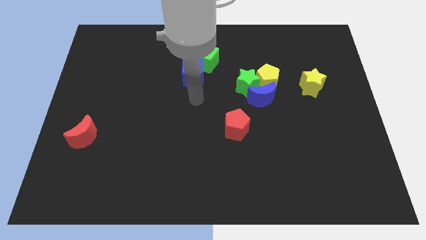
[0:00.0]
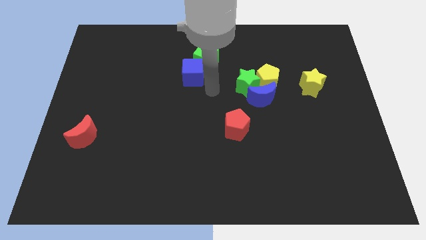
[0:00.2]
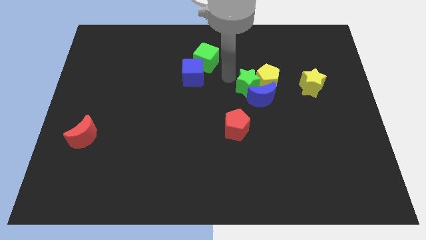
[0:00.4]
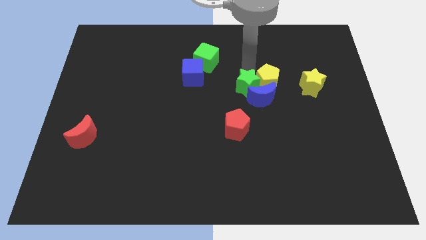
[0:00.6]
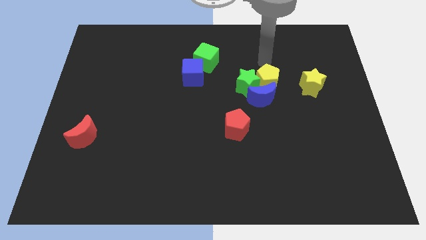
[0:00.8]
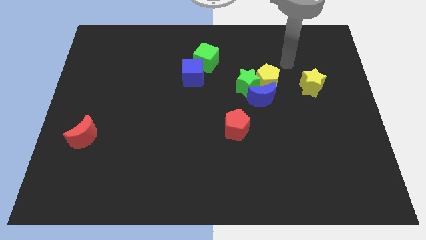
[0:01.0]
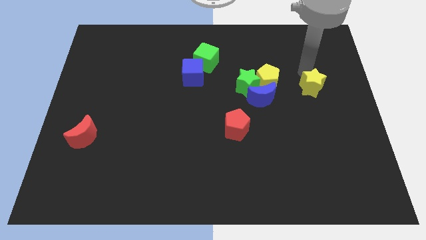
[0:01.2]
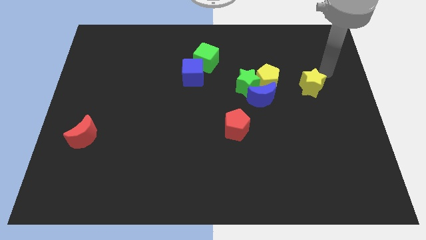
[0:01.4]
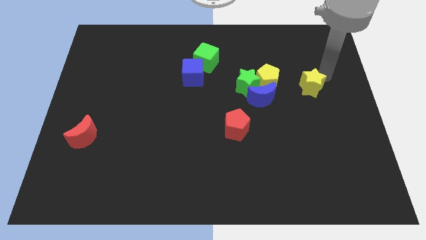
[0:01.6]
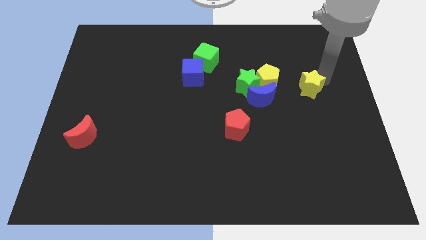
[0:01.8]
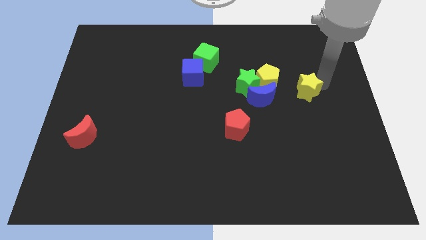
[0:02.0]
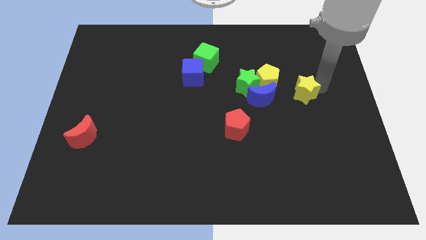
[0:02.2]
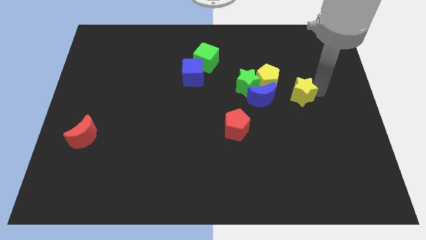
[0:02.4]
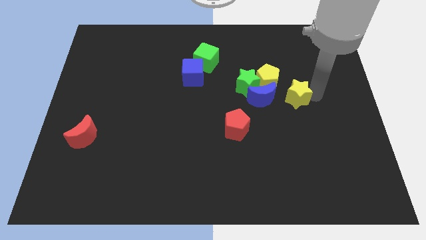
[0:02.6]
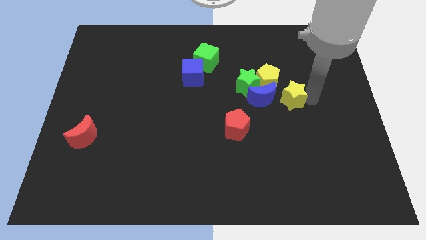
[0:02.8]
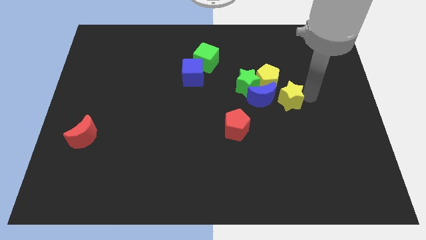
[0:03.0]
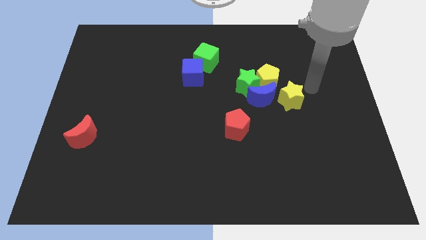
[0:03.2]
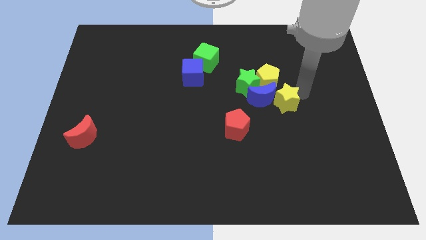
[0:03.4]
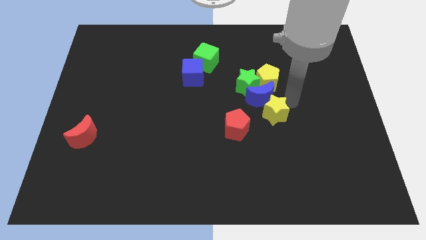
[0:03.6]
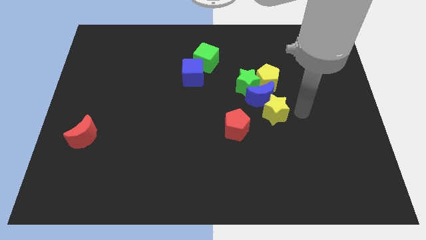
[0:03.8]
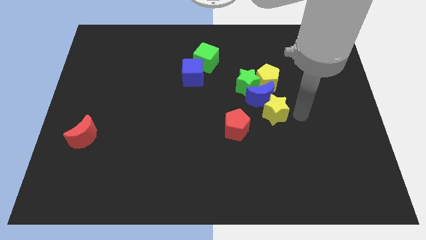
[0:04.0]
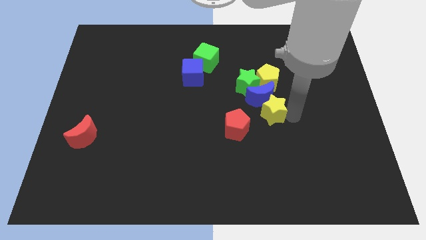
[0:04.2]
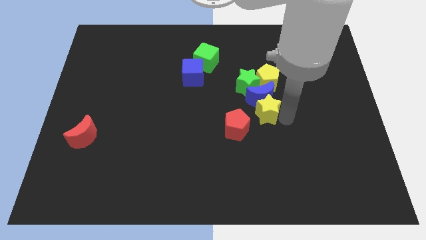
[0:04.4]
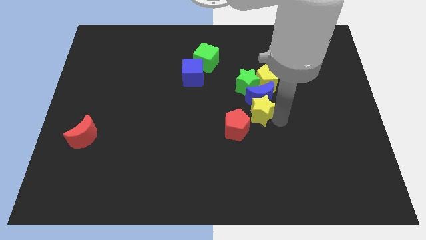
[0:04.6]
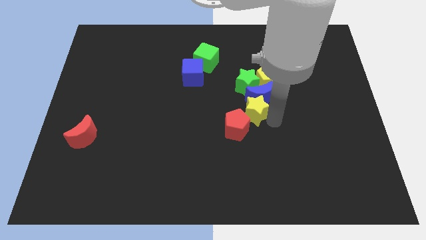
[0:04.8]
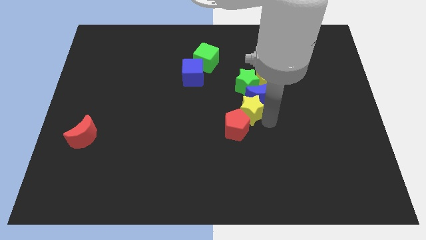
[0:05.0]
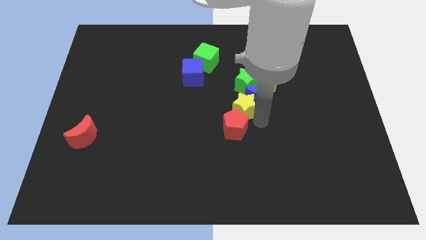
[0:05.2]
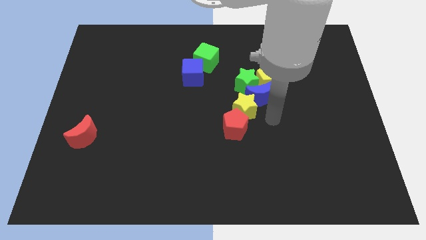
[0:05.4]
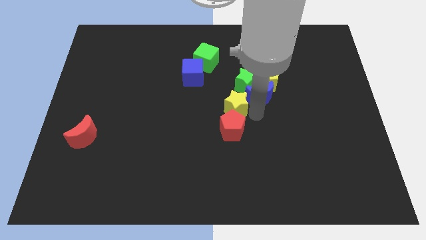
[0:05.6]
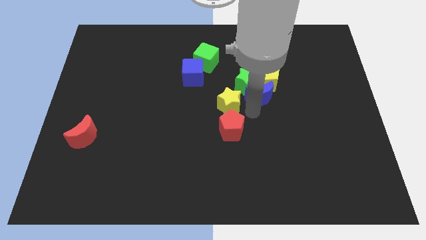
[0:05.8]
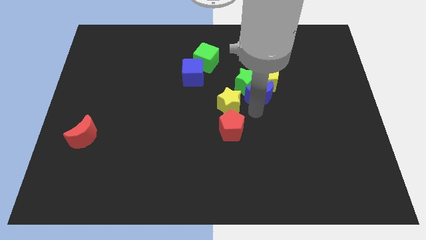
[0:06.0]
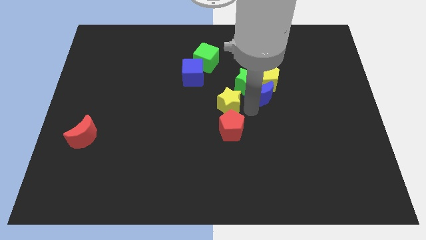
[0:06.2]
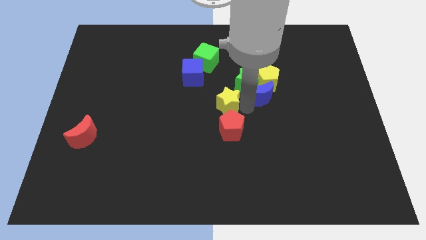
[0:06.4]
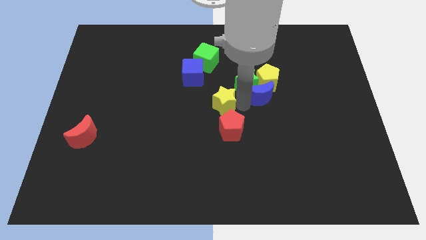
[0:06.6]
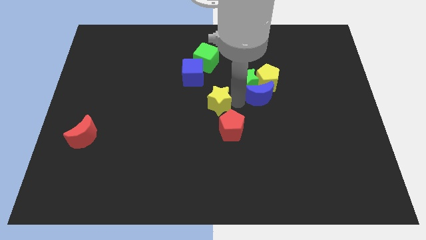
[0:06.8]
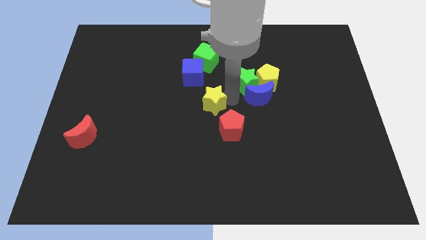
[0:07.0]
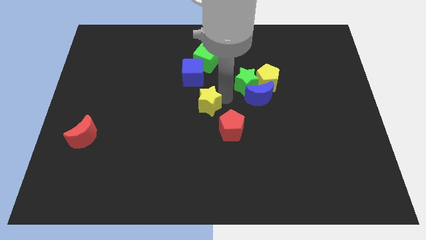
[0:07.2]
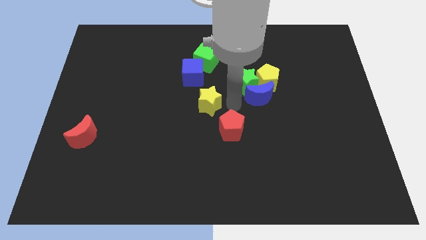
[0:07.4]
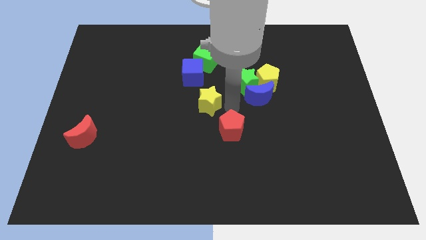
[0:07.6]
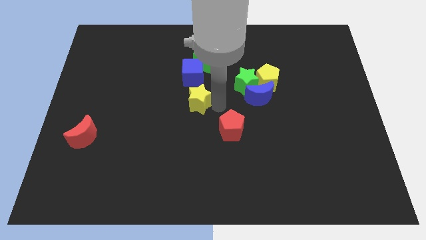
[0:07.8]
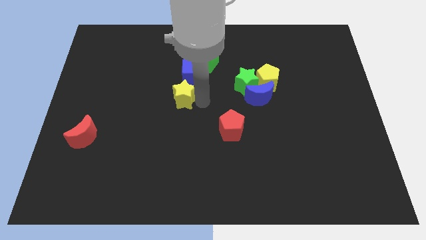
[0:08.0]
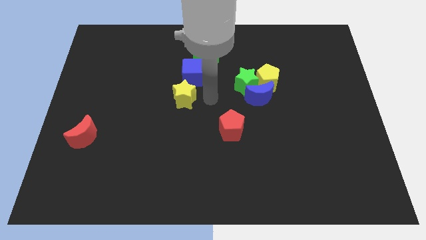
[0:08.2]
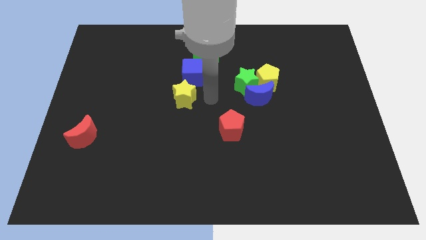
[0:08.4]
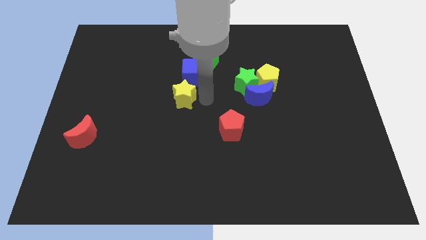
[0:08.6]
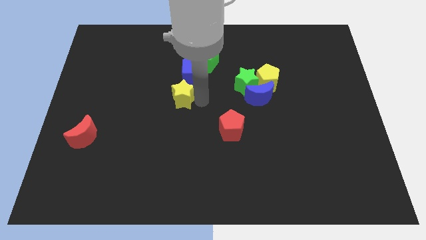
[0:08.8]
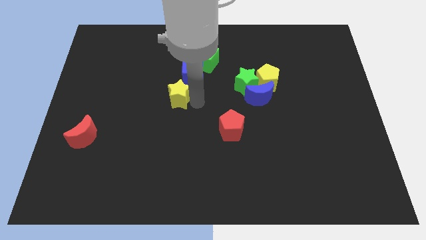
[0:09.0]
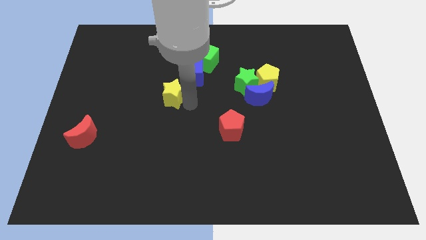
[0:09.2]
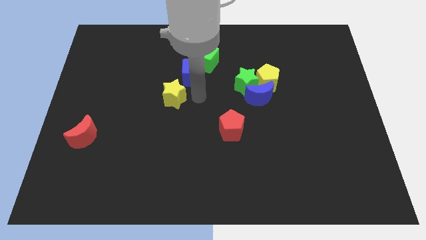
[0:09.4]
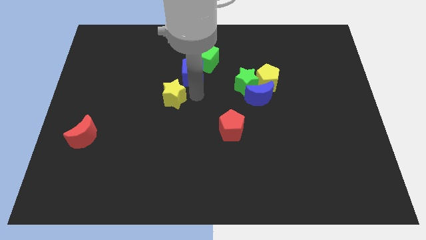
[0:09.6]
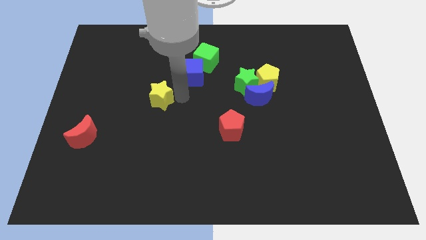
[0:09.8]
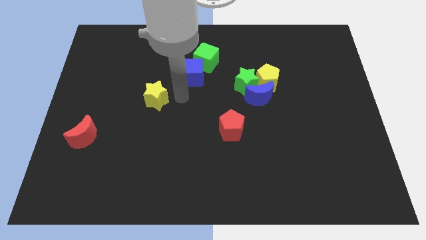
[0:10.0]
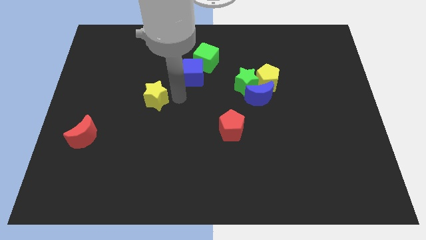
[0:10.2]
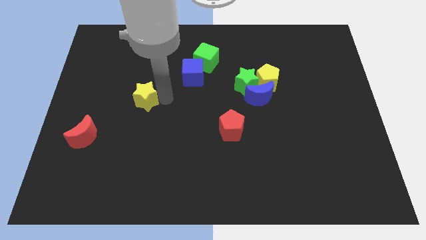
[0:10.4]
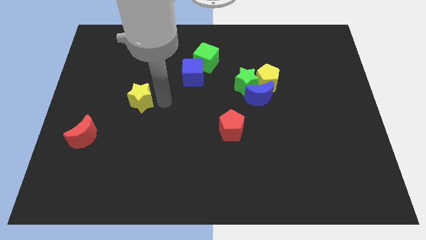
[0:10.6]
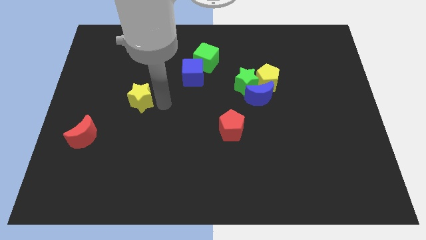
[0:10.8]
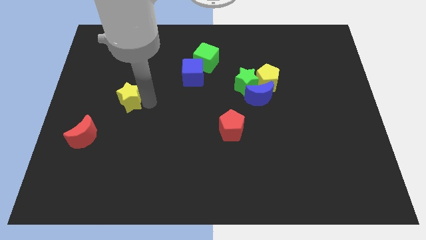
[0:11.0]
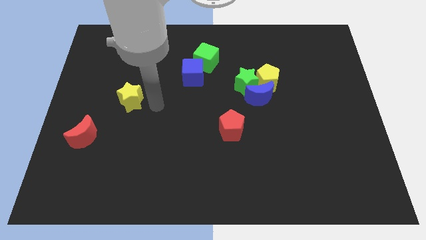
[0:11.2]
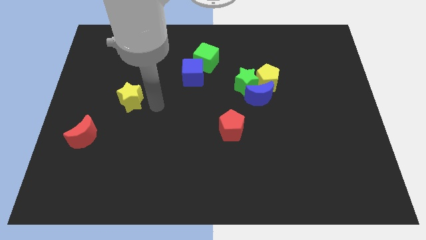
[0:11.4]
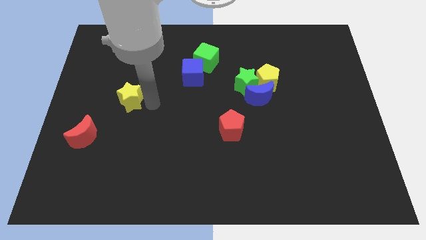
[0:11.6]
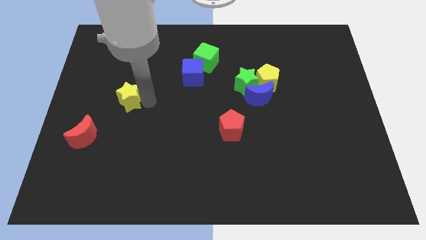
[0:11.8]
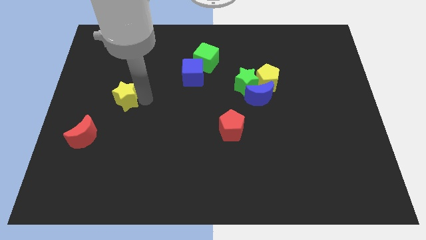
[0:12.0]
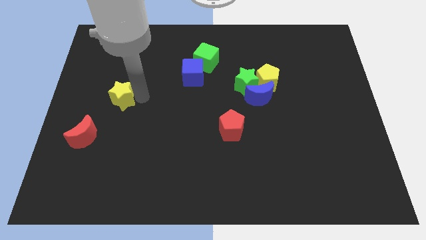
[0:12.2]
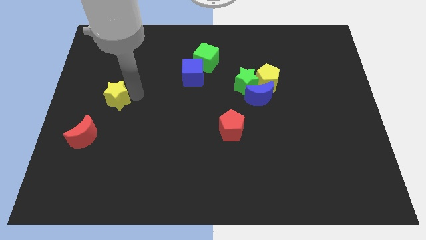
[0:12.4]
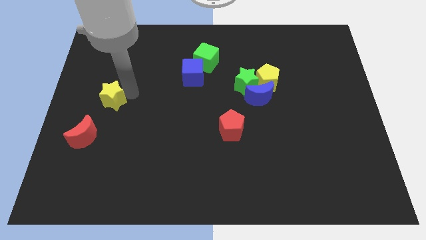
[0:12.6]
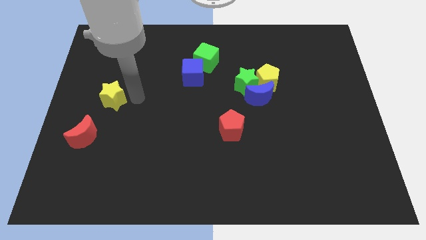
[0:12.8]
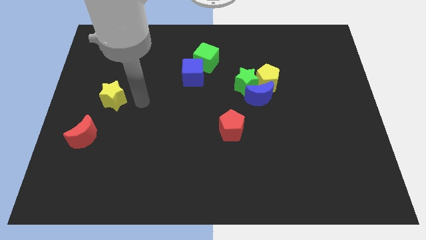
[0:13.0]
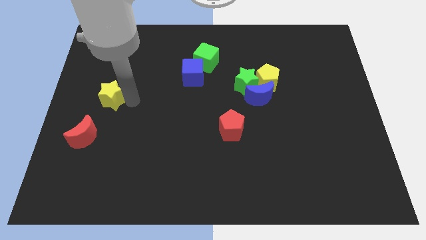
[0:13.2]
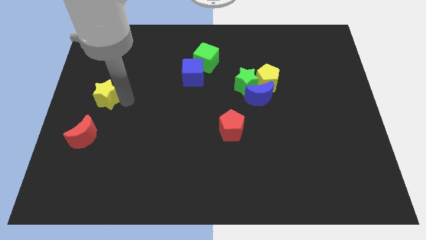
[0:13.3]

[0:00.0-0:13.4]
slide the yellow star to the left side of the board

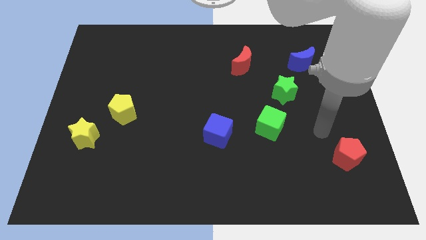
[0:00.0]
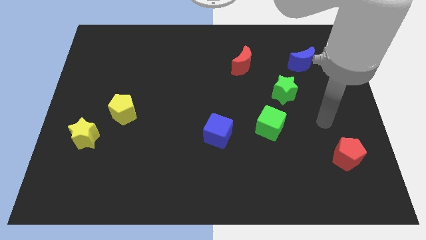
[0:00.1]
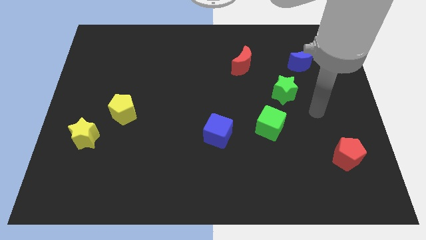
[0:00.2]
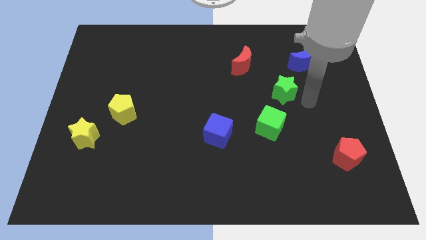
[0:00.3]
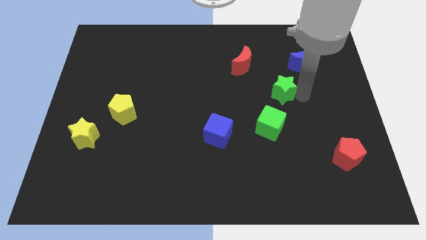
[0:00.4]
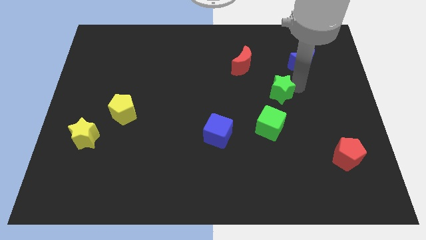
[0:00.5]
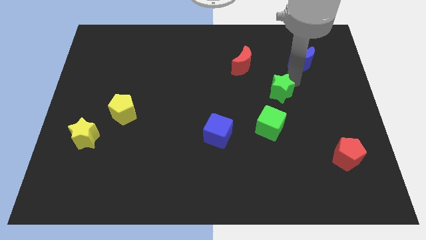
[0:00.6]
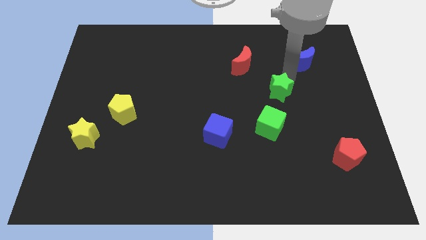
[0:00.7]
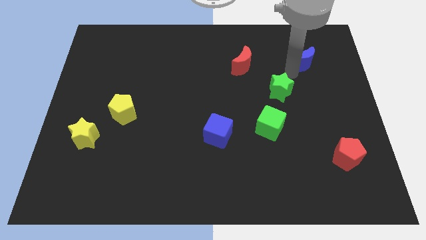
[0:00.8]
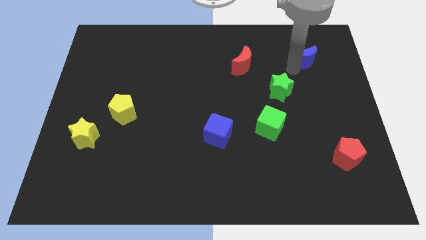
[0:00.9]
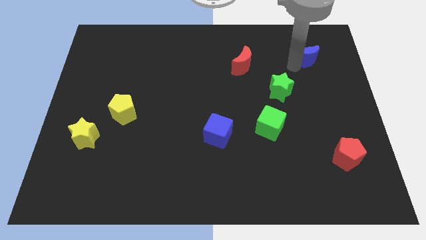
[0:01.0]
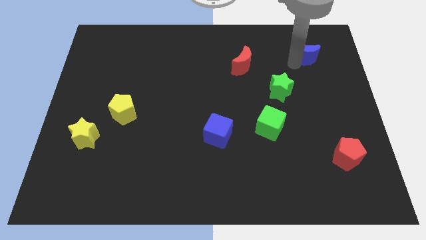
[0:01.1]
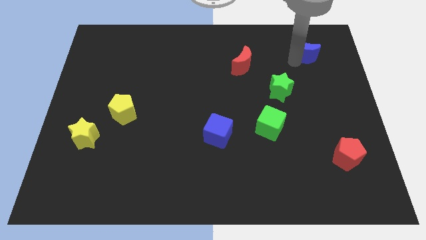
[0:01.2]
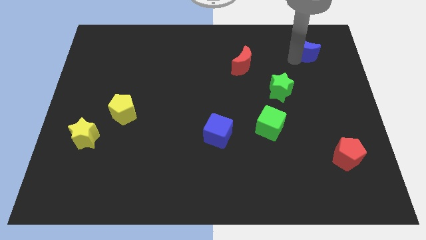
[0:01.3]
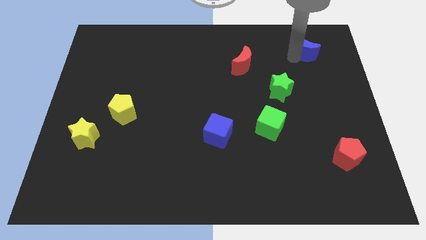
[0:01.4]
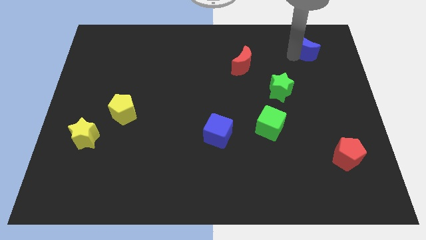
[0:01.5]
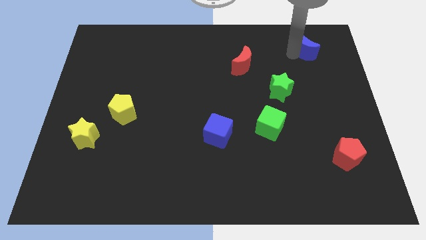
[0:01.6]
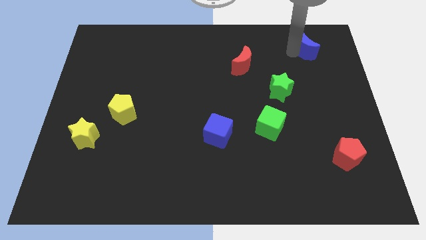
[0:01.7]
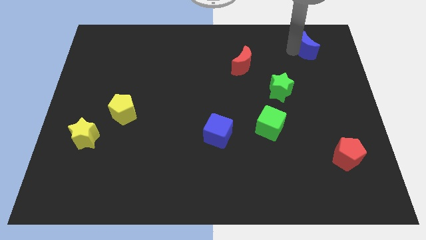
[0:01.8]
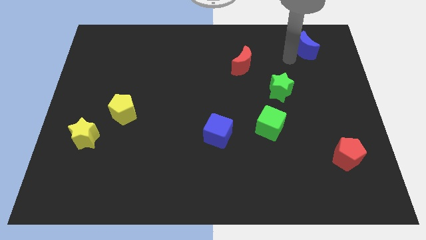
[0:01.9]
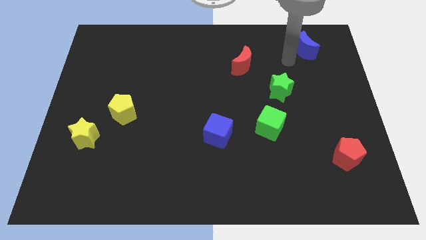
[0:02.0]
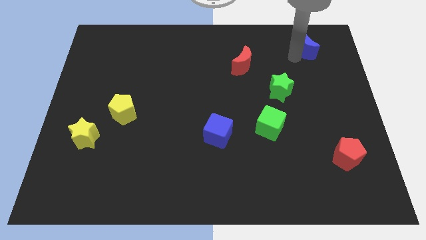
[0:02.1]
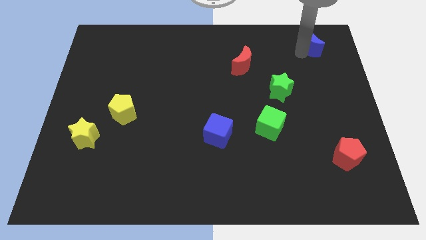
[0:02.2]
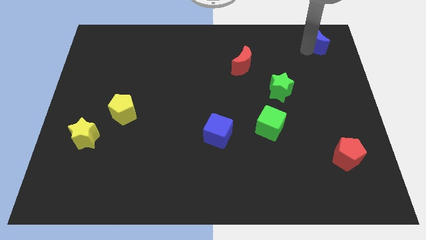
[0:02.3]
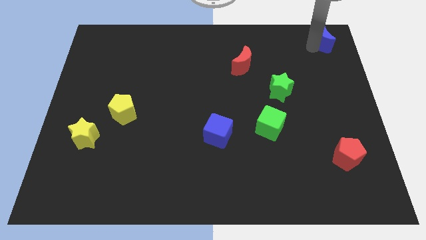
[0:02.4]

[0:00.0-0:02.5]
slide the blue moon to the upper right corner
